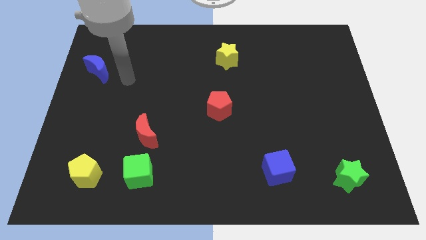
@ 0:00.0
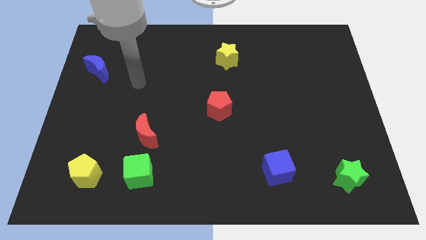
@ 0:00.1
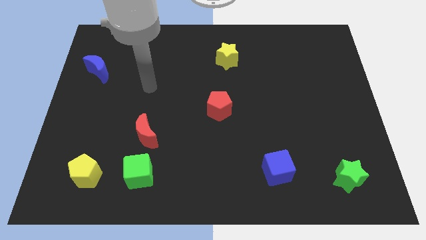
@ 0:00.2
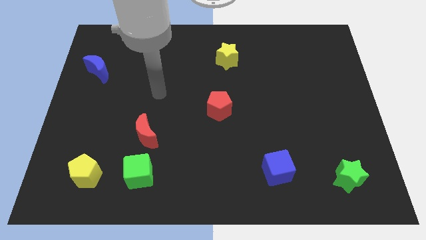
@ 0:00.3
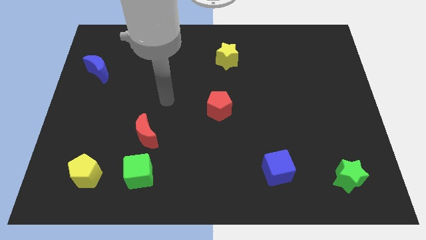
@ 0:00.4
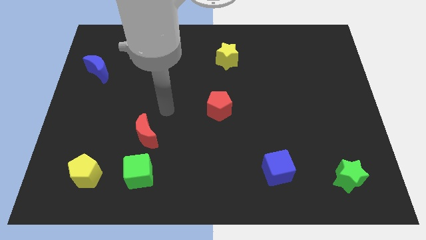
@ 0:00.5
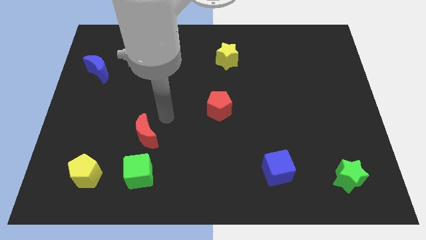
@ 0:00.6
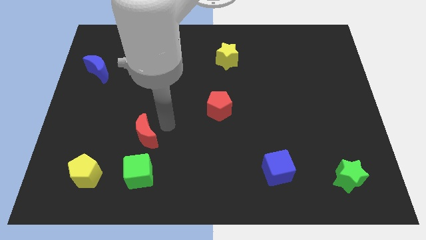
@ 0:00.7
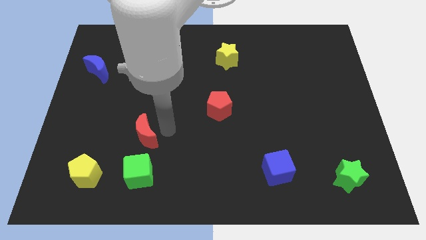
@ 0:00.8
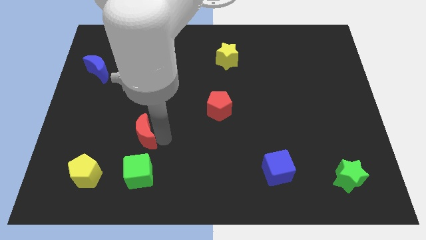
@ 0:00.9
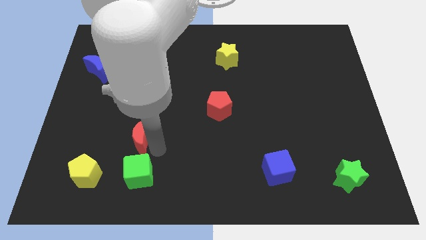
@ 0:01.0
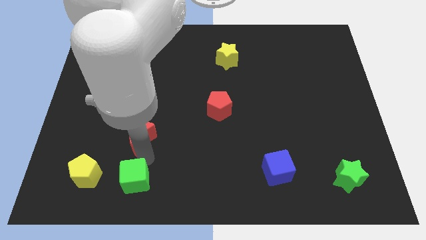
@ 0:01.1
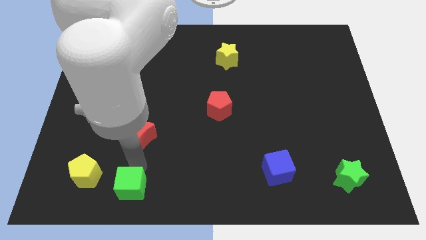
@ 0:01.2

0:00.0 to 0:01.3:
separate the red moon from the green cube

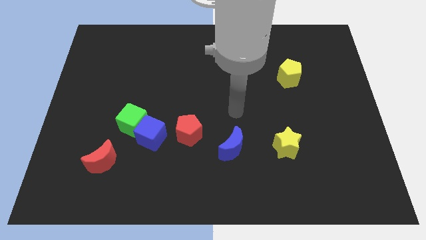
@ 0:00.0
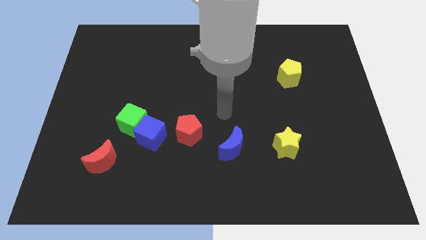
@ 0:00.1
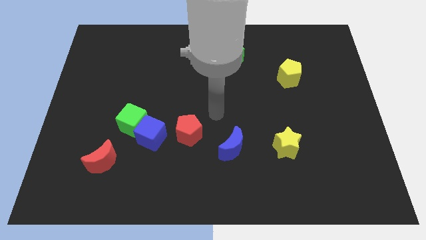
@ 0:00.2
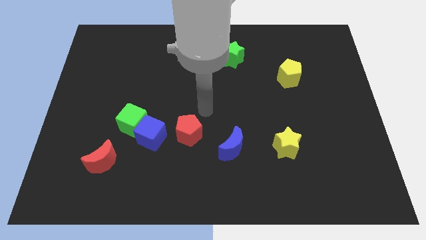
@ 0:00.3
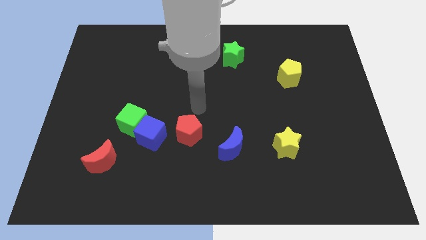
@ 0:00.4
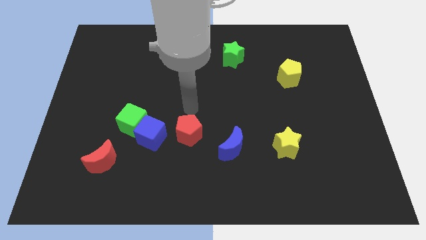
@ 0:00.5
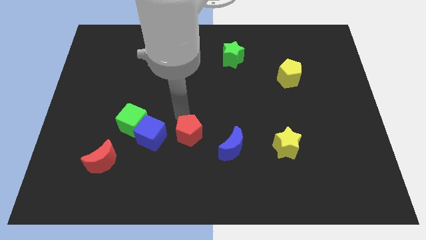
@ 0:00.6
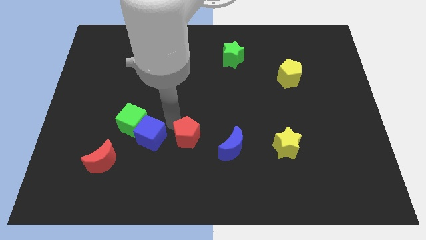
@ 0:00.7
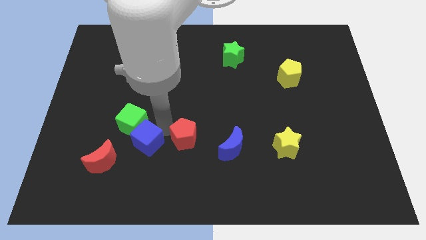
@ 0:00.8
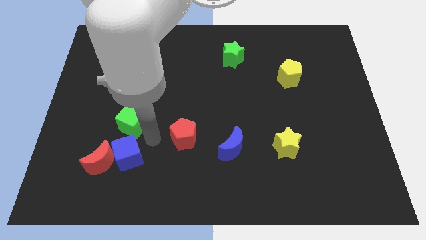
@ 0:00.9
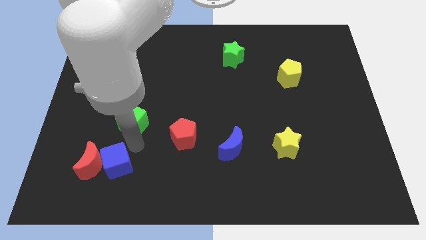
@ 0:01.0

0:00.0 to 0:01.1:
separate the green cube from the blue cube

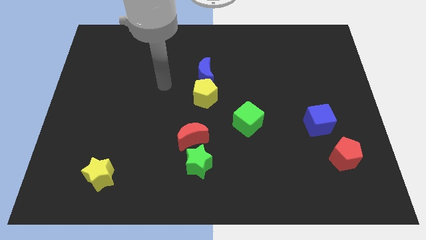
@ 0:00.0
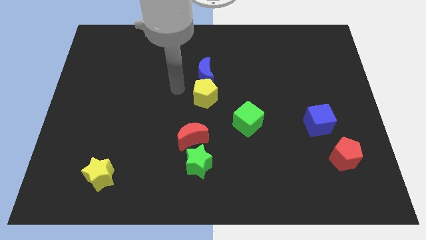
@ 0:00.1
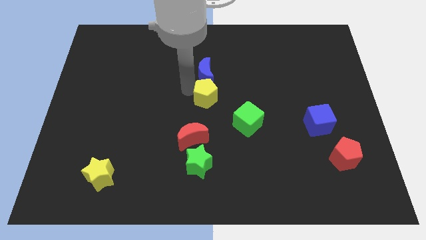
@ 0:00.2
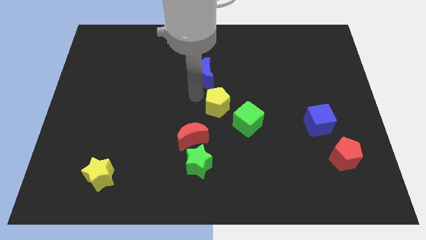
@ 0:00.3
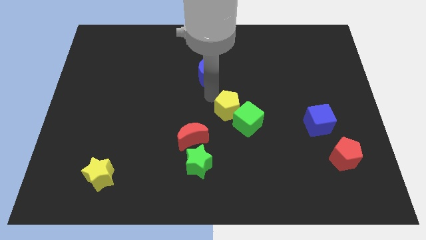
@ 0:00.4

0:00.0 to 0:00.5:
pull the blue moon apart from the yellow pentagon

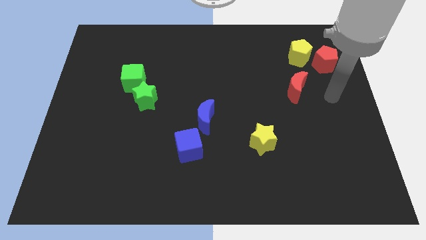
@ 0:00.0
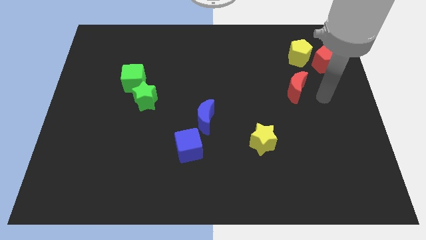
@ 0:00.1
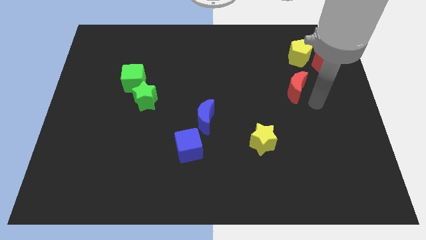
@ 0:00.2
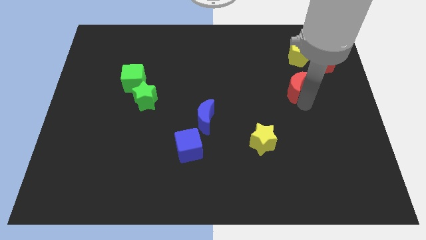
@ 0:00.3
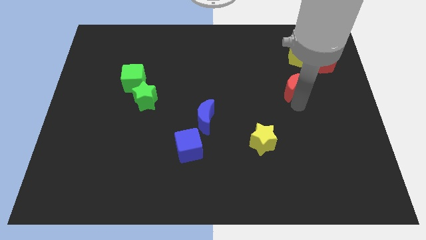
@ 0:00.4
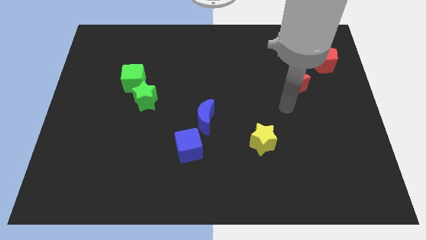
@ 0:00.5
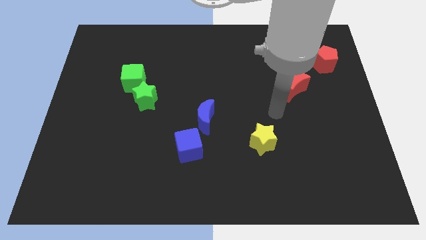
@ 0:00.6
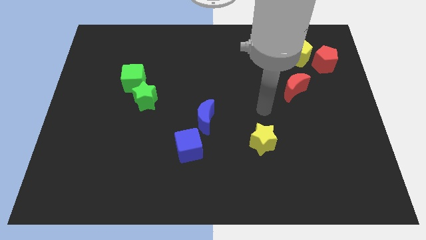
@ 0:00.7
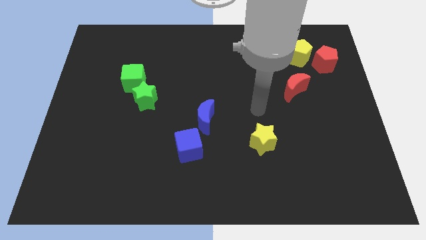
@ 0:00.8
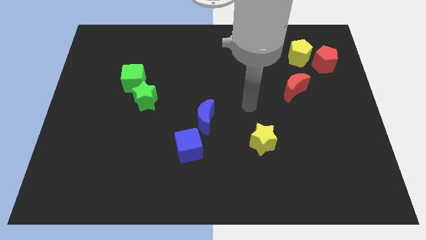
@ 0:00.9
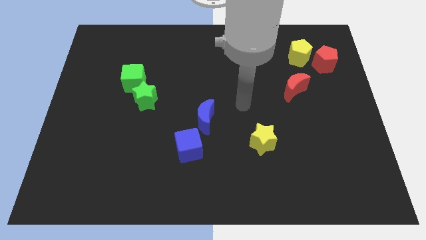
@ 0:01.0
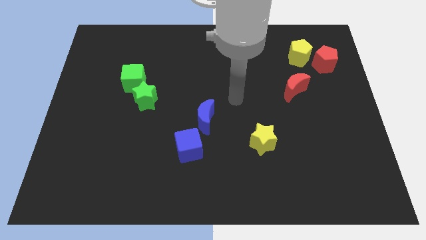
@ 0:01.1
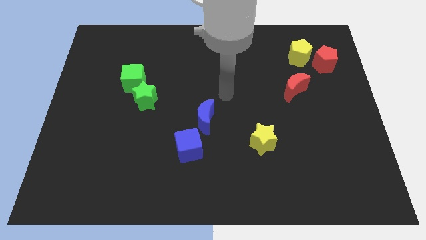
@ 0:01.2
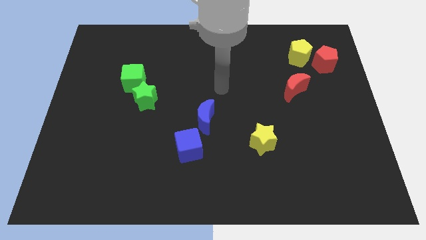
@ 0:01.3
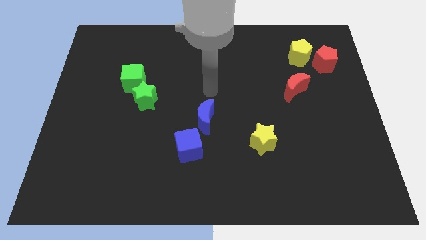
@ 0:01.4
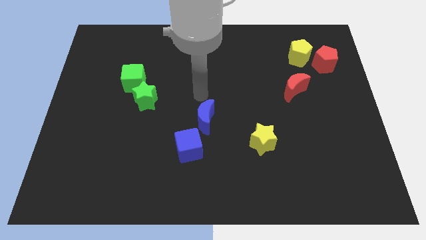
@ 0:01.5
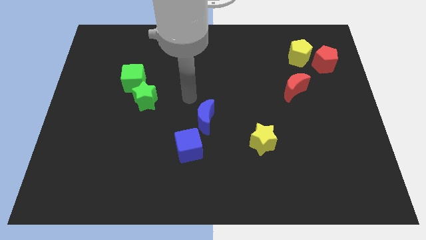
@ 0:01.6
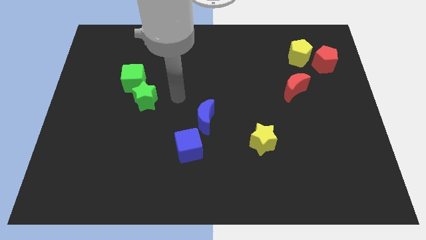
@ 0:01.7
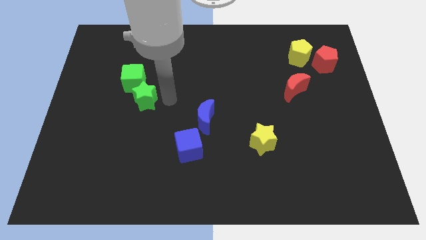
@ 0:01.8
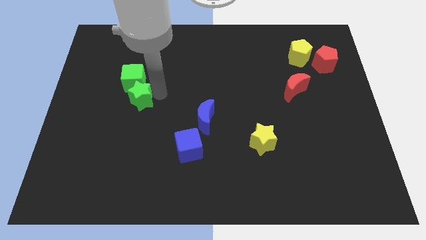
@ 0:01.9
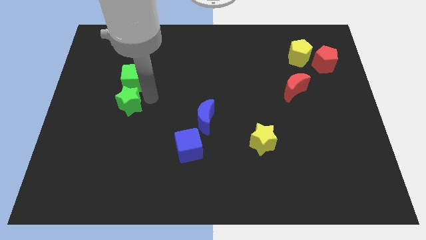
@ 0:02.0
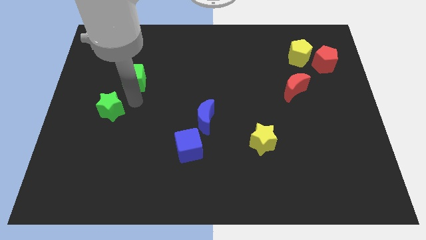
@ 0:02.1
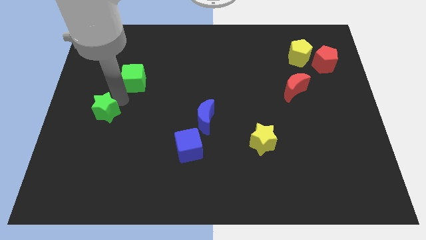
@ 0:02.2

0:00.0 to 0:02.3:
pull the green cube apart from the green star

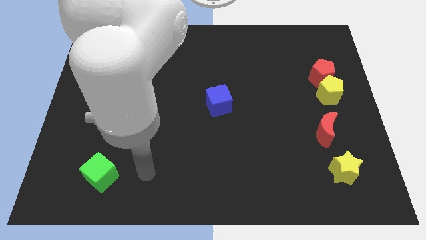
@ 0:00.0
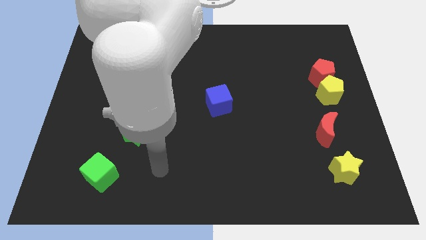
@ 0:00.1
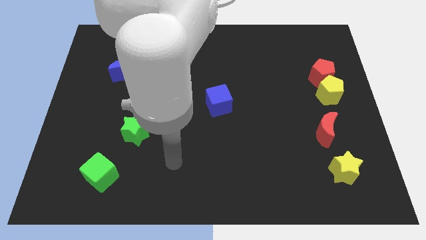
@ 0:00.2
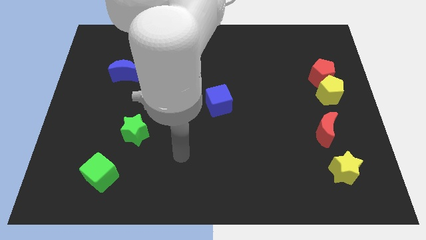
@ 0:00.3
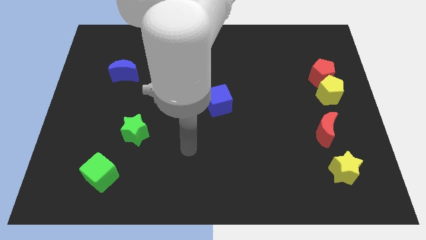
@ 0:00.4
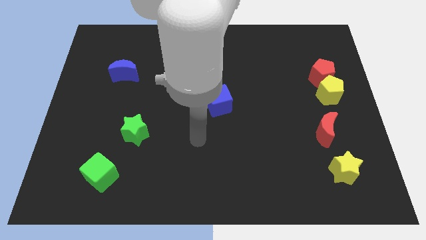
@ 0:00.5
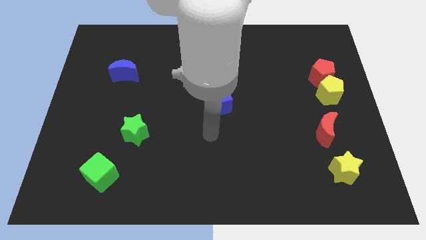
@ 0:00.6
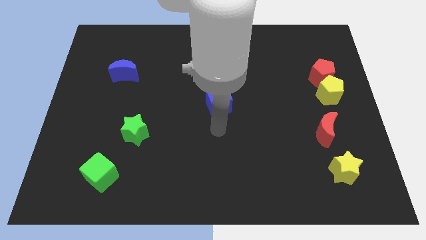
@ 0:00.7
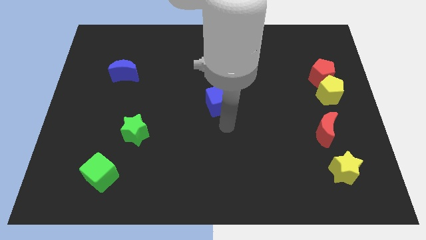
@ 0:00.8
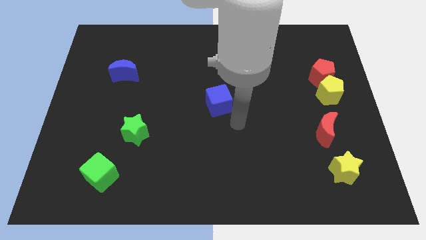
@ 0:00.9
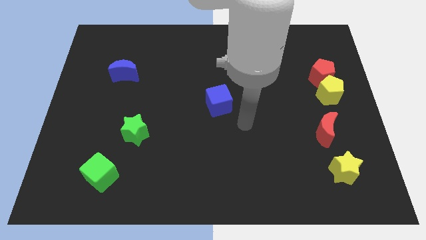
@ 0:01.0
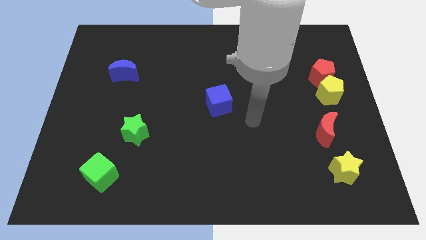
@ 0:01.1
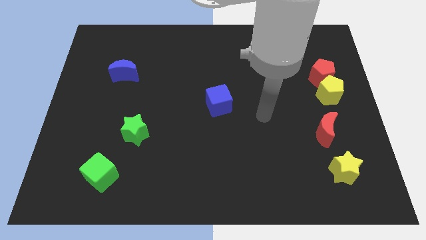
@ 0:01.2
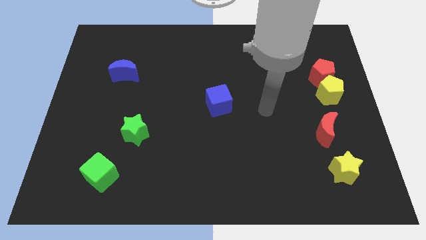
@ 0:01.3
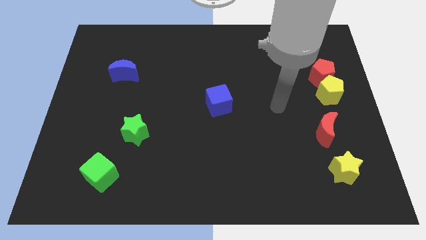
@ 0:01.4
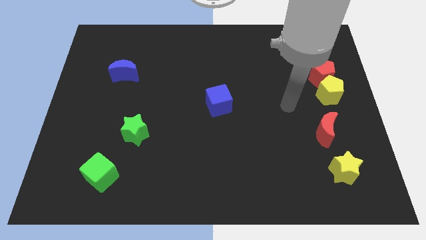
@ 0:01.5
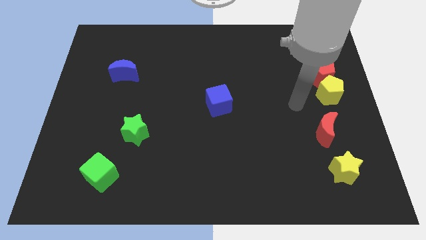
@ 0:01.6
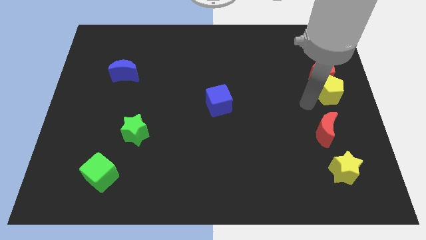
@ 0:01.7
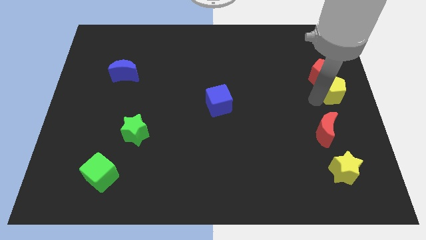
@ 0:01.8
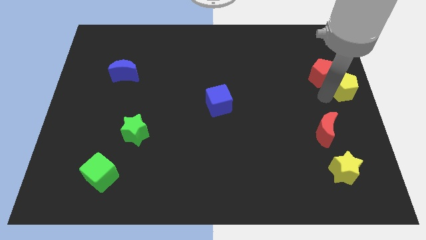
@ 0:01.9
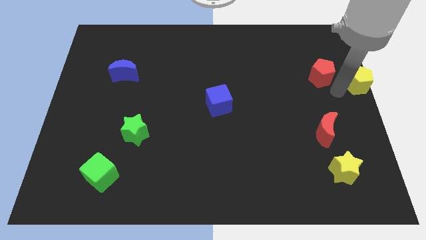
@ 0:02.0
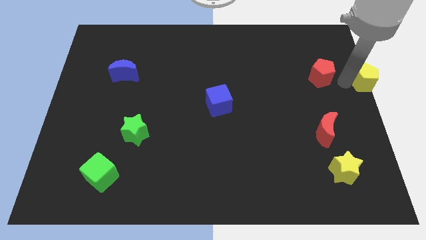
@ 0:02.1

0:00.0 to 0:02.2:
separate the red pentagon from the yellow pentagon

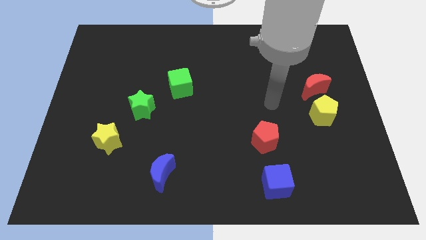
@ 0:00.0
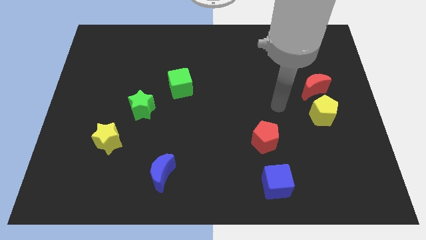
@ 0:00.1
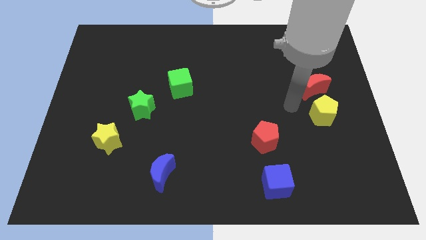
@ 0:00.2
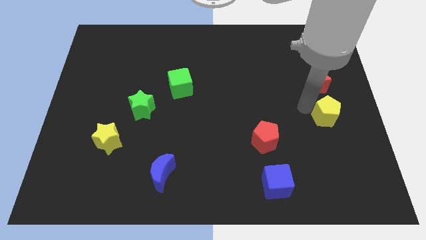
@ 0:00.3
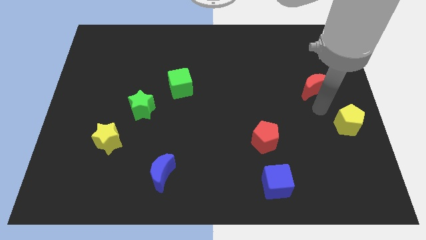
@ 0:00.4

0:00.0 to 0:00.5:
pull the red moon apart from the yellow pentagon

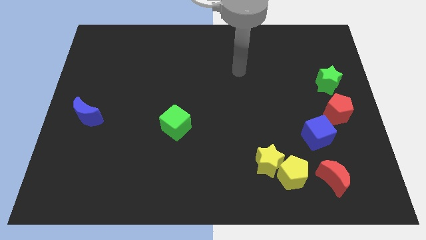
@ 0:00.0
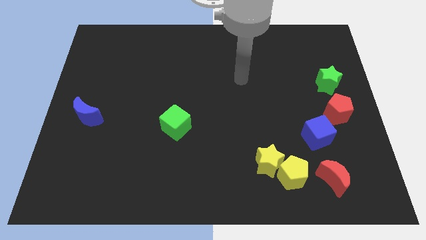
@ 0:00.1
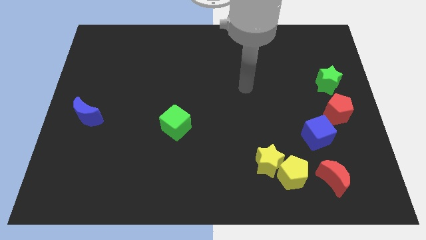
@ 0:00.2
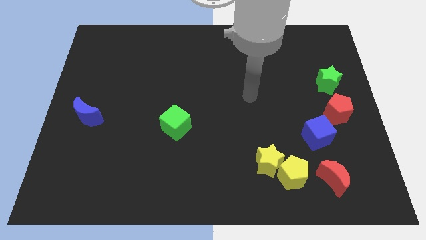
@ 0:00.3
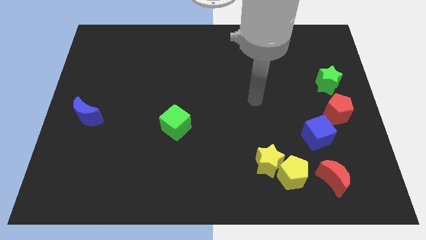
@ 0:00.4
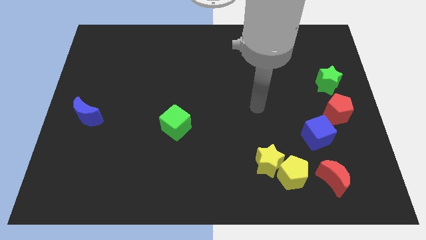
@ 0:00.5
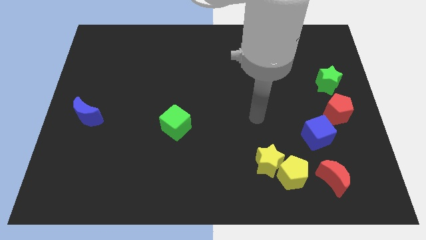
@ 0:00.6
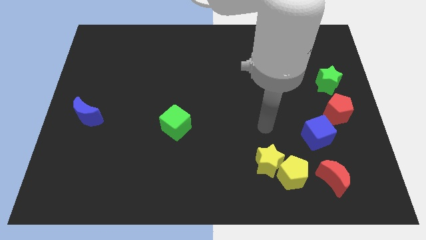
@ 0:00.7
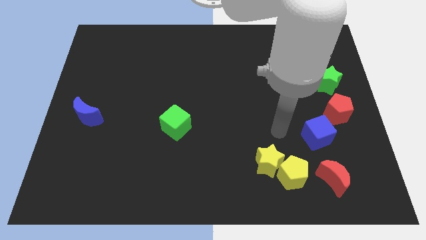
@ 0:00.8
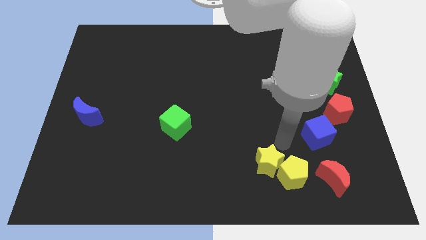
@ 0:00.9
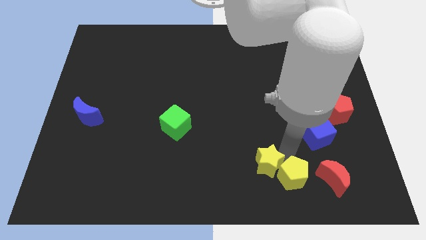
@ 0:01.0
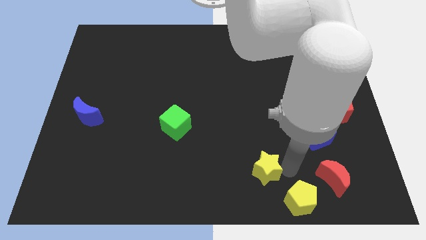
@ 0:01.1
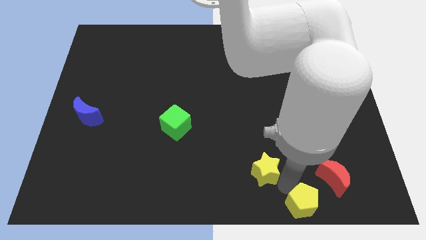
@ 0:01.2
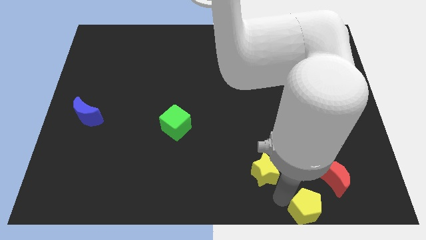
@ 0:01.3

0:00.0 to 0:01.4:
pull the yellow star apart from the yellow pentagon

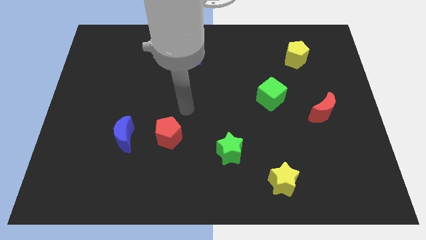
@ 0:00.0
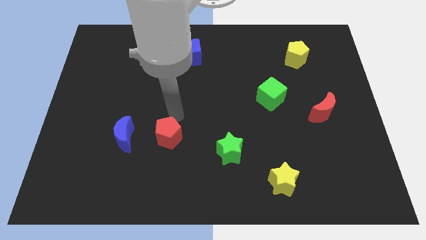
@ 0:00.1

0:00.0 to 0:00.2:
move the red pentagon away from the blue moon
